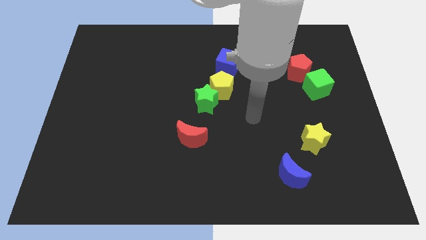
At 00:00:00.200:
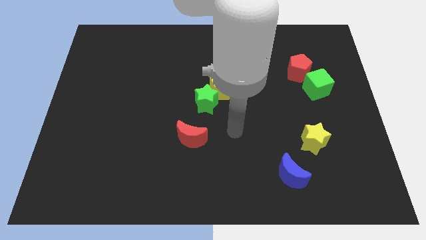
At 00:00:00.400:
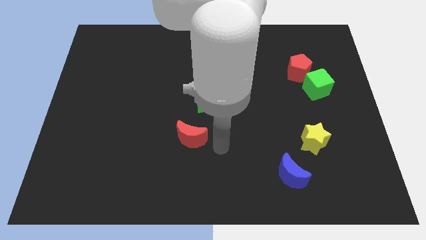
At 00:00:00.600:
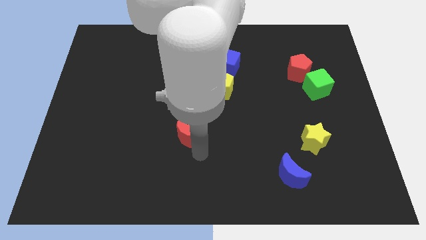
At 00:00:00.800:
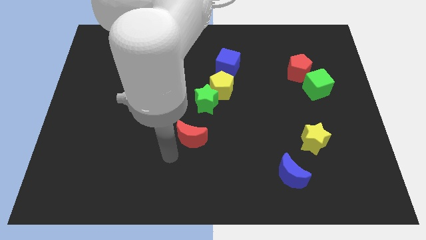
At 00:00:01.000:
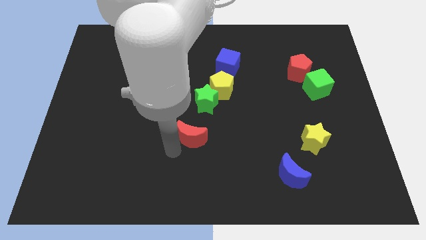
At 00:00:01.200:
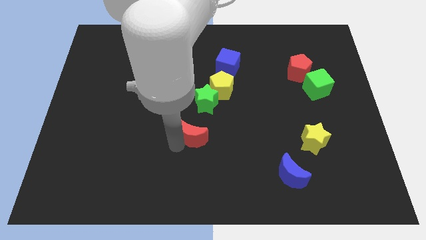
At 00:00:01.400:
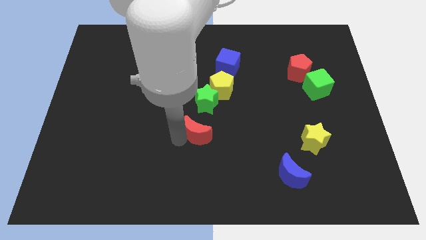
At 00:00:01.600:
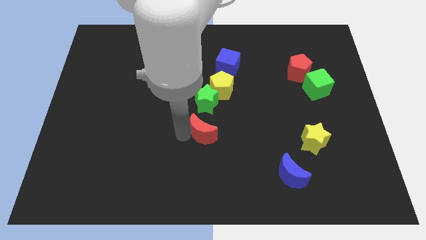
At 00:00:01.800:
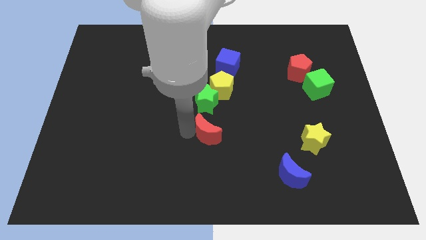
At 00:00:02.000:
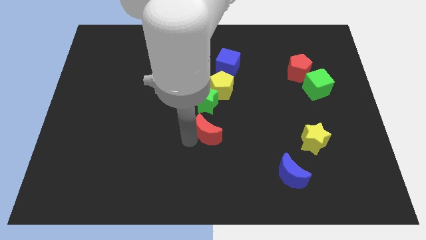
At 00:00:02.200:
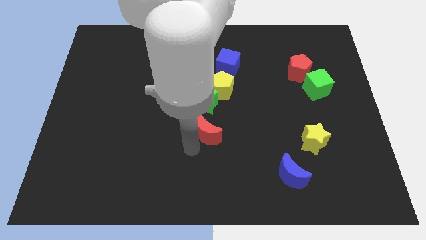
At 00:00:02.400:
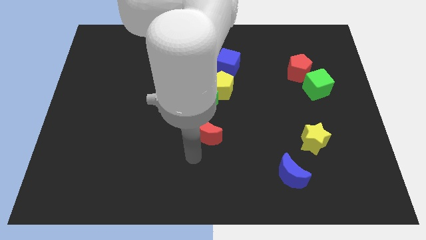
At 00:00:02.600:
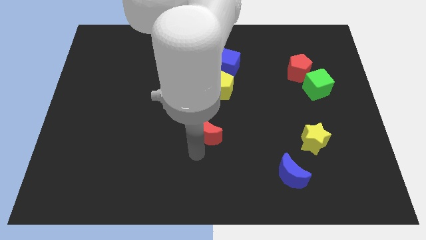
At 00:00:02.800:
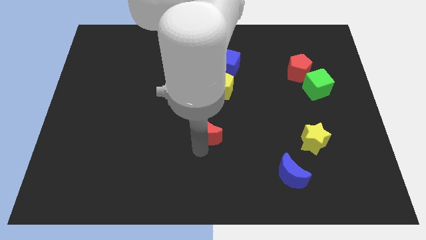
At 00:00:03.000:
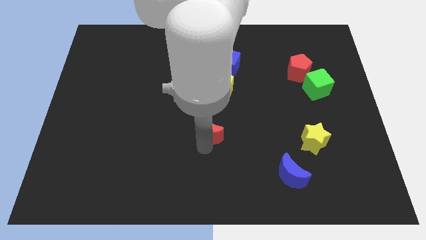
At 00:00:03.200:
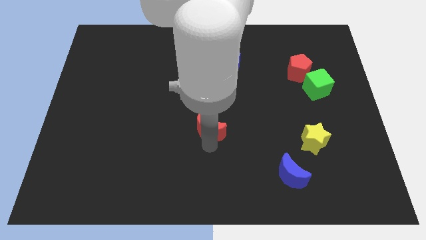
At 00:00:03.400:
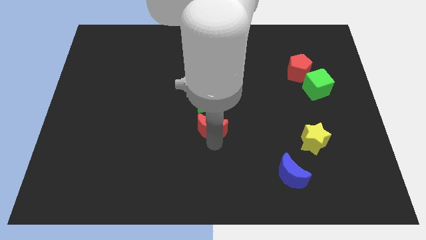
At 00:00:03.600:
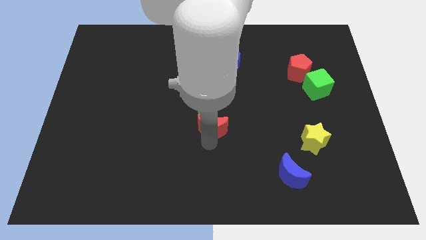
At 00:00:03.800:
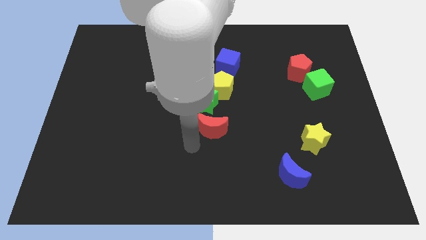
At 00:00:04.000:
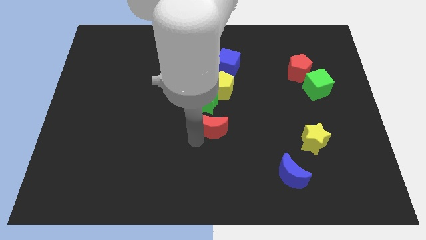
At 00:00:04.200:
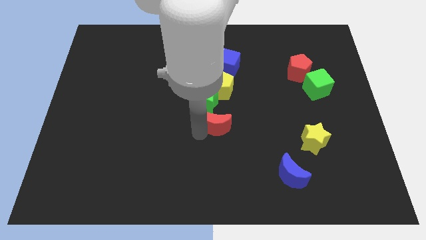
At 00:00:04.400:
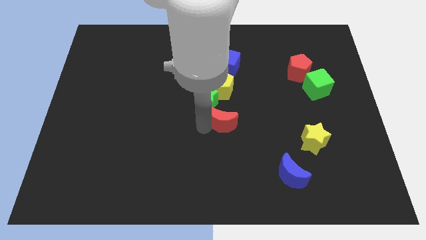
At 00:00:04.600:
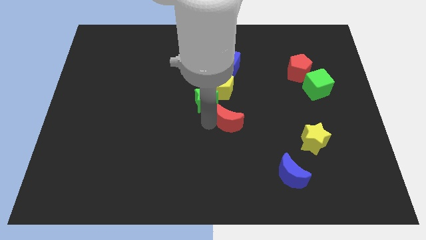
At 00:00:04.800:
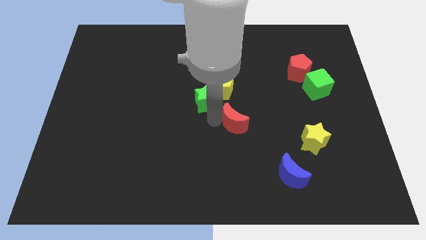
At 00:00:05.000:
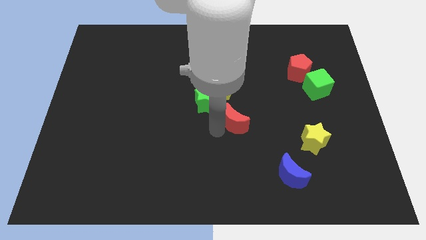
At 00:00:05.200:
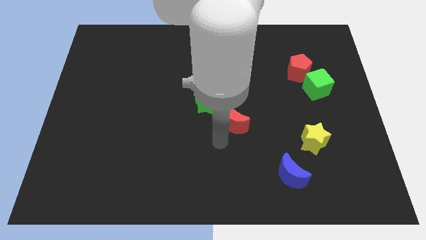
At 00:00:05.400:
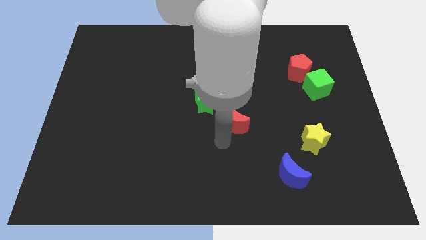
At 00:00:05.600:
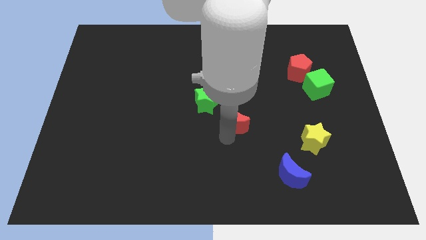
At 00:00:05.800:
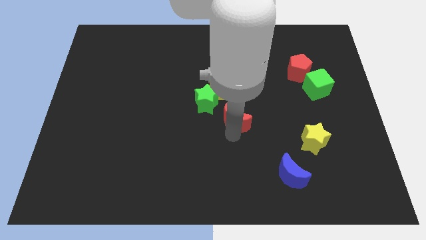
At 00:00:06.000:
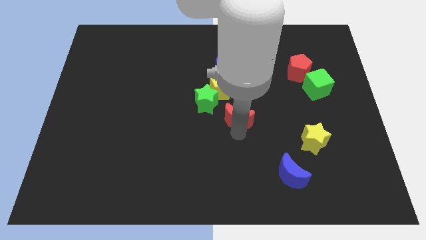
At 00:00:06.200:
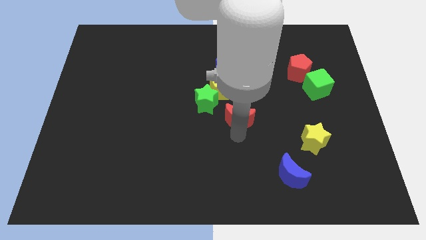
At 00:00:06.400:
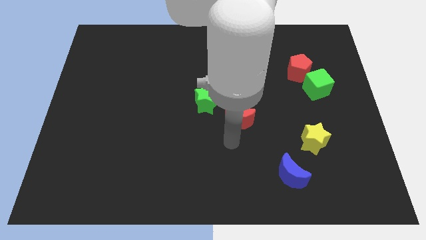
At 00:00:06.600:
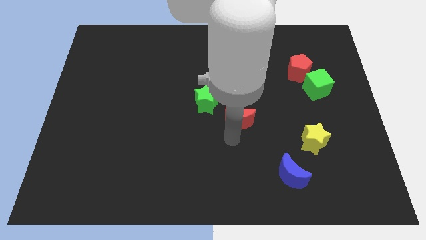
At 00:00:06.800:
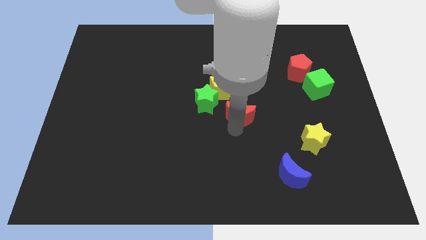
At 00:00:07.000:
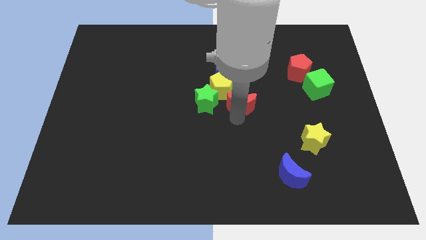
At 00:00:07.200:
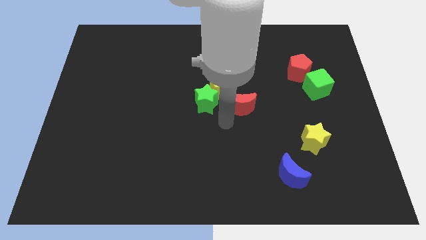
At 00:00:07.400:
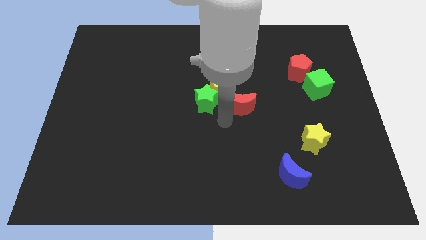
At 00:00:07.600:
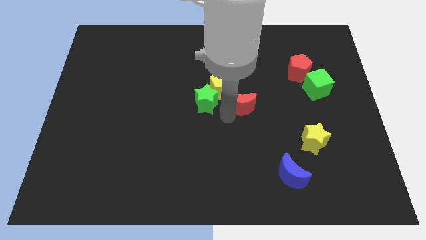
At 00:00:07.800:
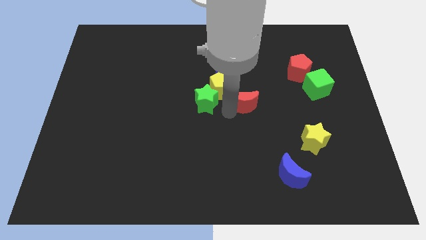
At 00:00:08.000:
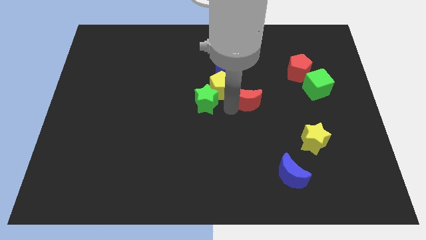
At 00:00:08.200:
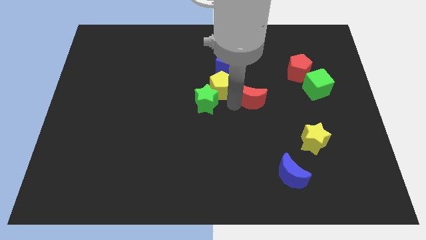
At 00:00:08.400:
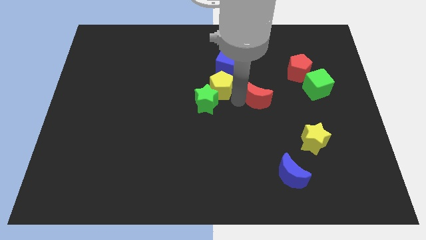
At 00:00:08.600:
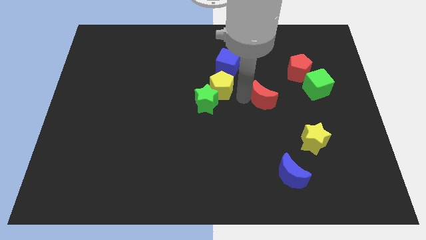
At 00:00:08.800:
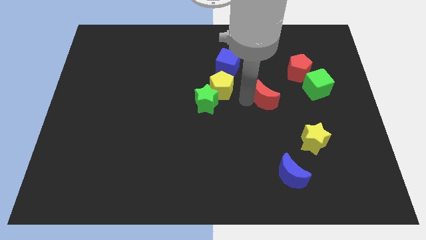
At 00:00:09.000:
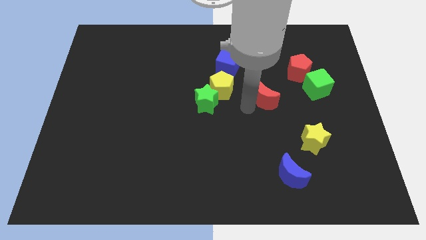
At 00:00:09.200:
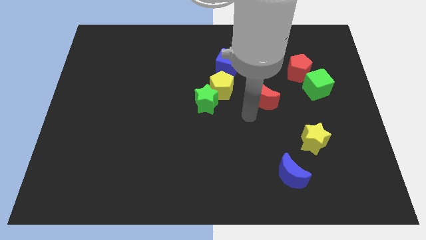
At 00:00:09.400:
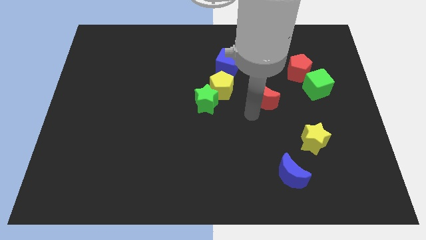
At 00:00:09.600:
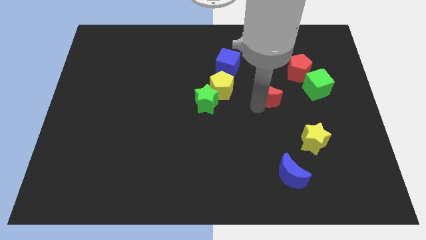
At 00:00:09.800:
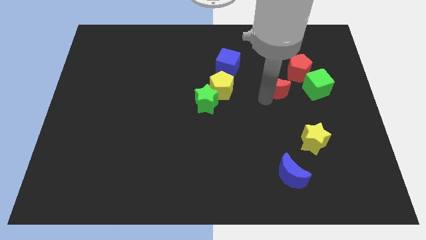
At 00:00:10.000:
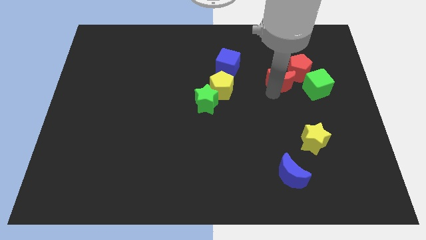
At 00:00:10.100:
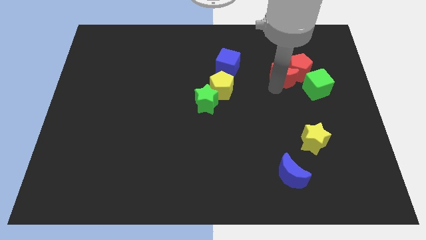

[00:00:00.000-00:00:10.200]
move the red moon diagonally up and to the left of the green cube

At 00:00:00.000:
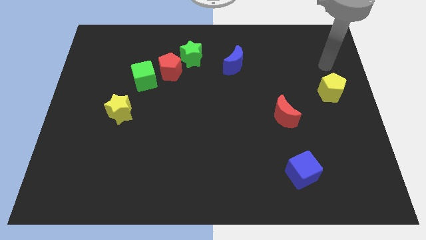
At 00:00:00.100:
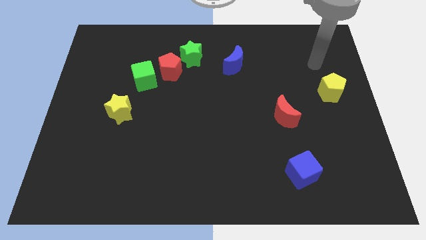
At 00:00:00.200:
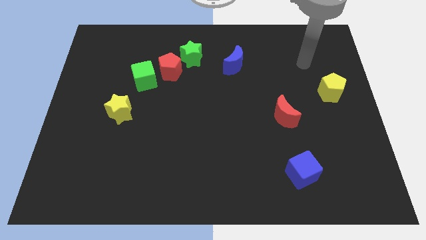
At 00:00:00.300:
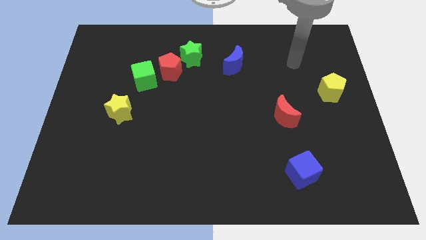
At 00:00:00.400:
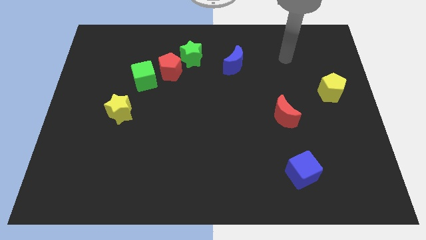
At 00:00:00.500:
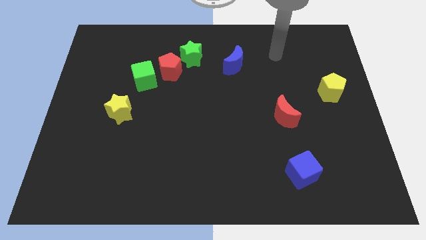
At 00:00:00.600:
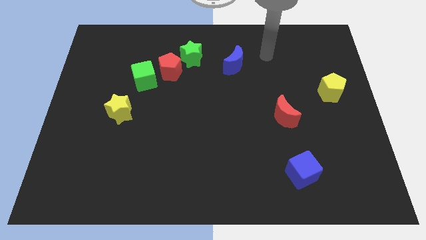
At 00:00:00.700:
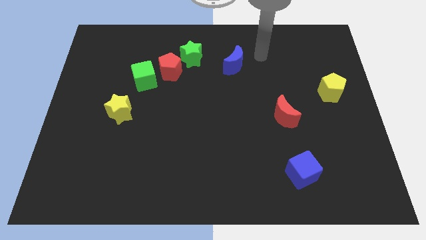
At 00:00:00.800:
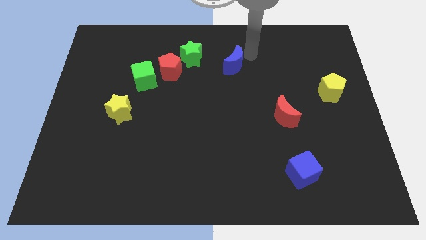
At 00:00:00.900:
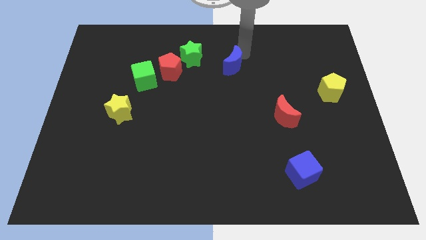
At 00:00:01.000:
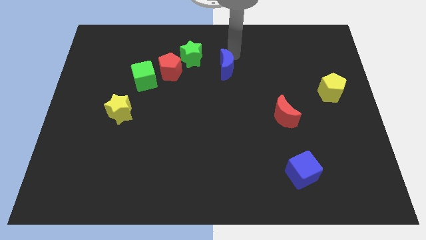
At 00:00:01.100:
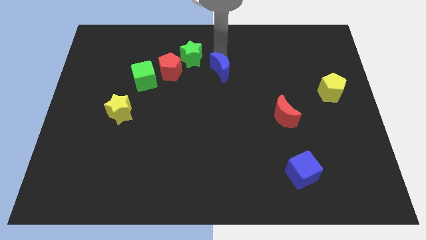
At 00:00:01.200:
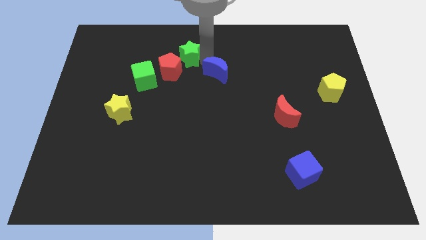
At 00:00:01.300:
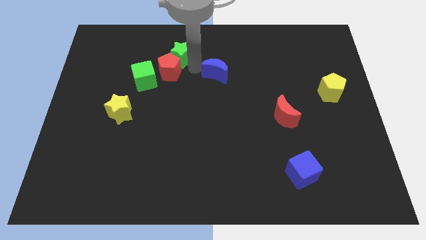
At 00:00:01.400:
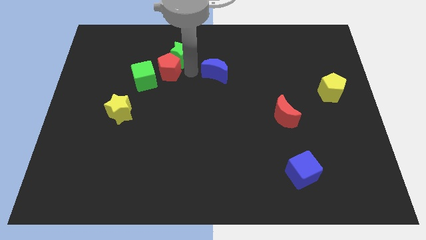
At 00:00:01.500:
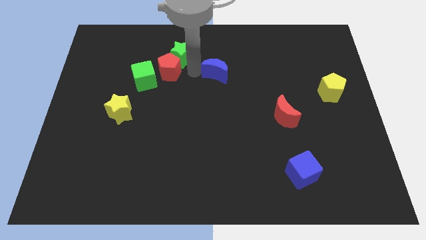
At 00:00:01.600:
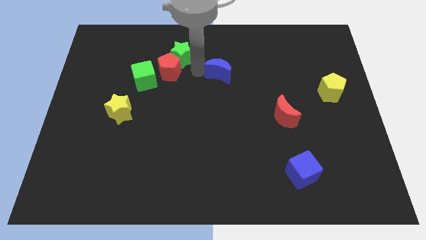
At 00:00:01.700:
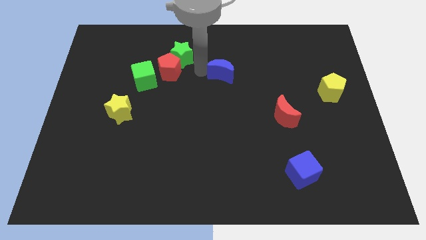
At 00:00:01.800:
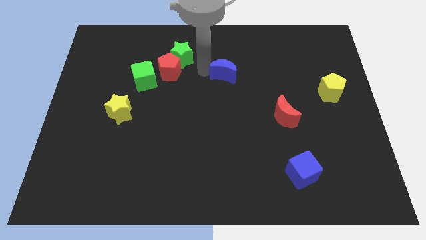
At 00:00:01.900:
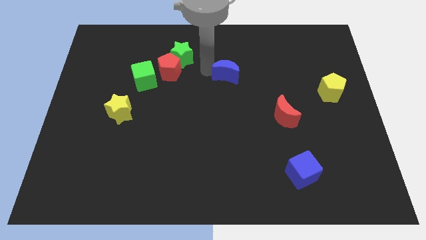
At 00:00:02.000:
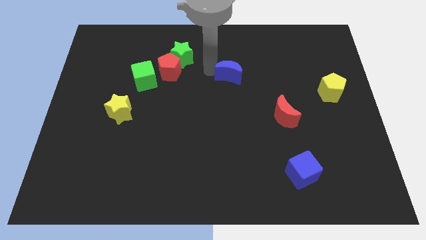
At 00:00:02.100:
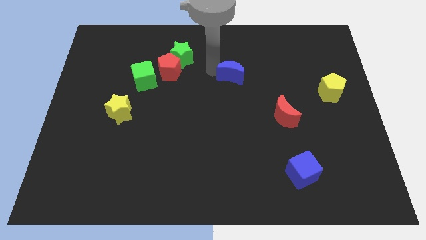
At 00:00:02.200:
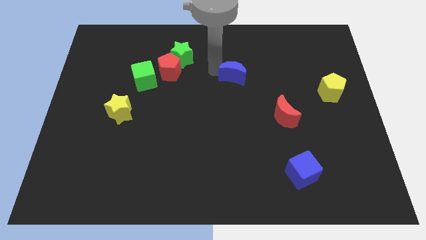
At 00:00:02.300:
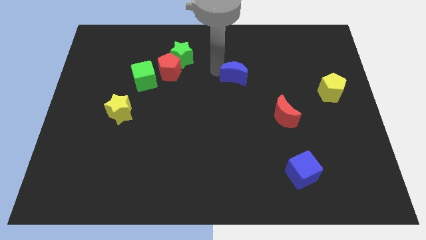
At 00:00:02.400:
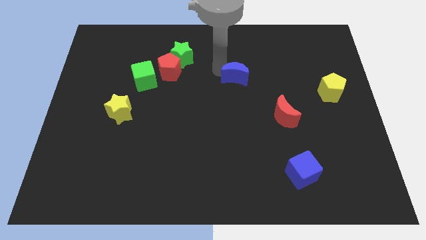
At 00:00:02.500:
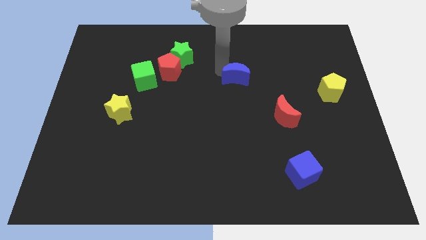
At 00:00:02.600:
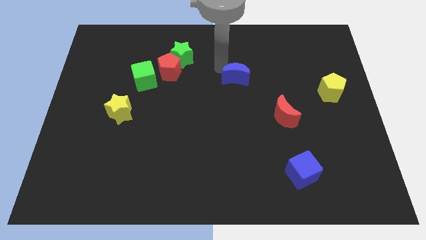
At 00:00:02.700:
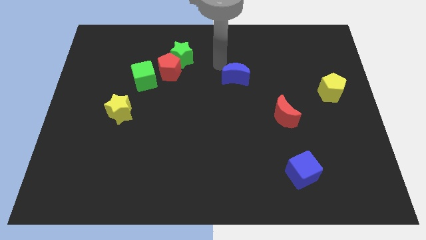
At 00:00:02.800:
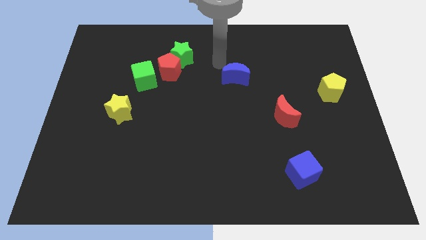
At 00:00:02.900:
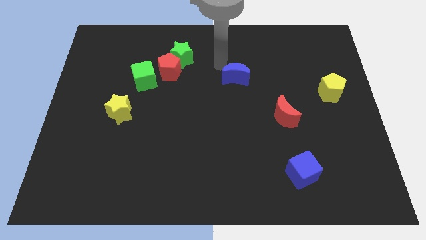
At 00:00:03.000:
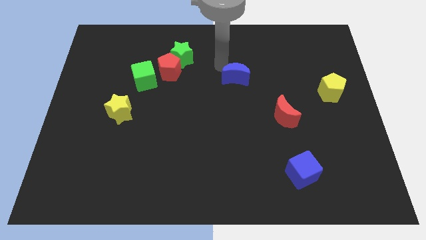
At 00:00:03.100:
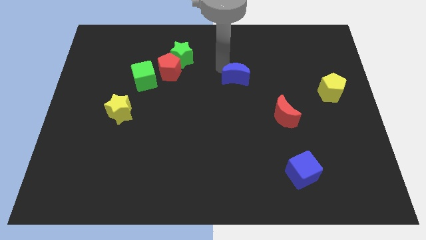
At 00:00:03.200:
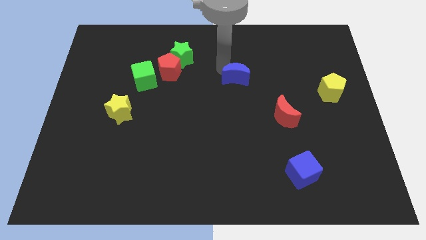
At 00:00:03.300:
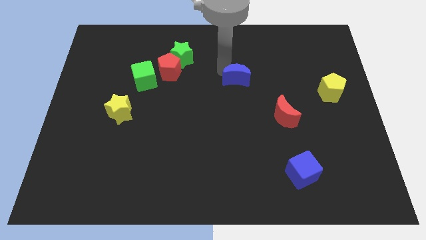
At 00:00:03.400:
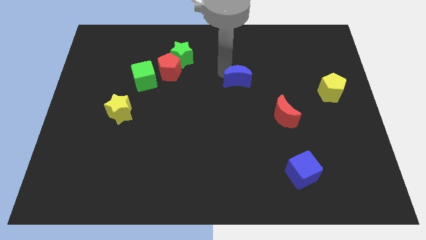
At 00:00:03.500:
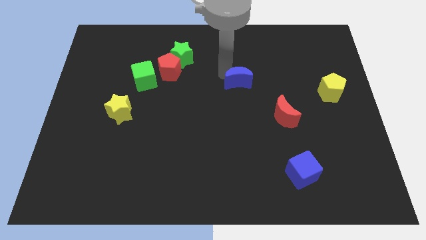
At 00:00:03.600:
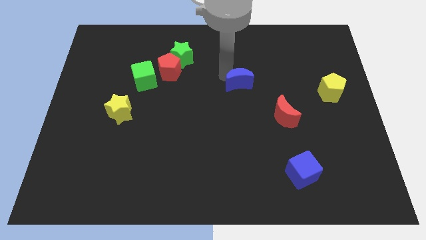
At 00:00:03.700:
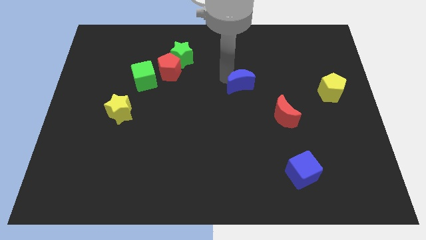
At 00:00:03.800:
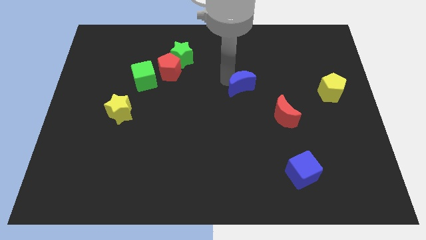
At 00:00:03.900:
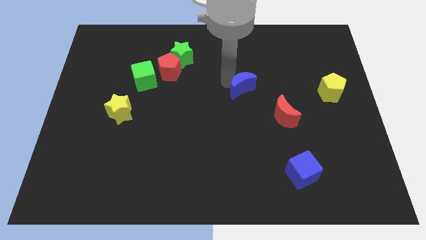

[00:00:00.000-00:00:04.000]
move the blue moon diagonally up and to the left of the red moon
